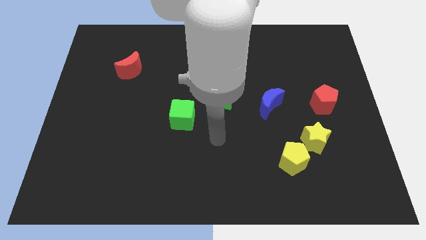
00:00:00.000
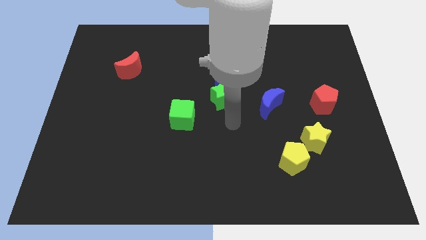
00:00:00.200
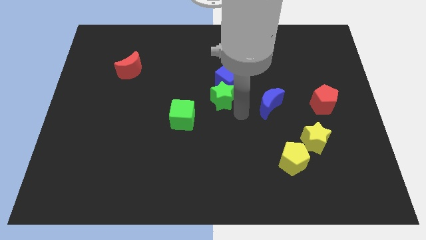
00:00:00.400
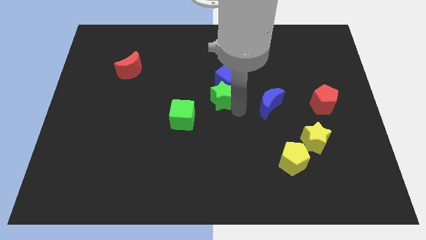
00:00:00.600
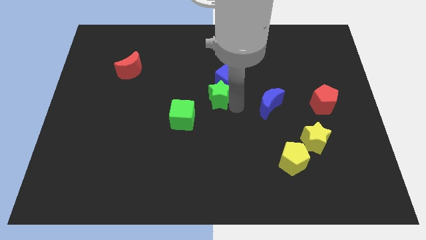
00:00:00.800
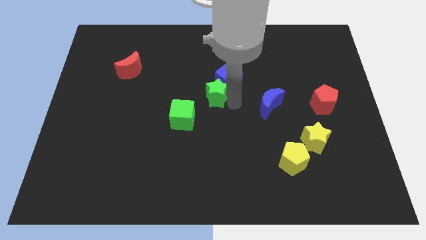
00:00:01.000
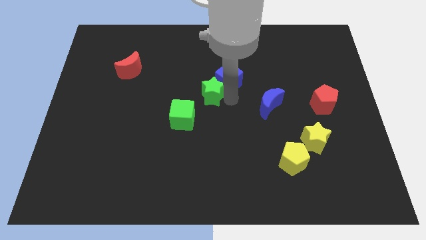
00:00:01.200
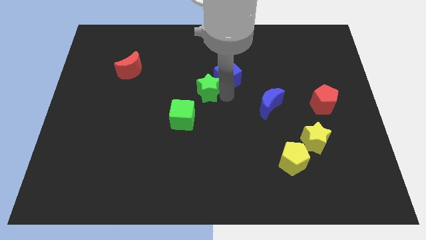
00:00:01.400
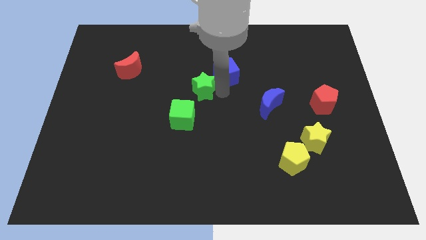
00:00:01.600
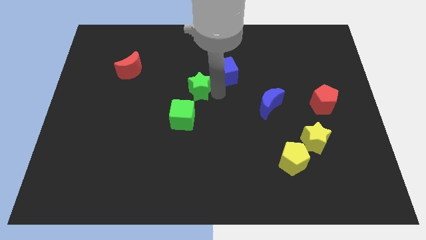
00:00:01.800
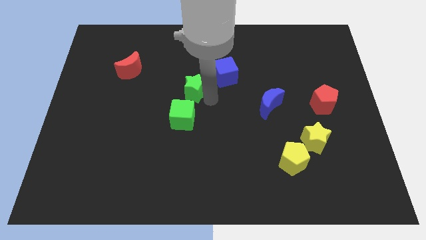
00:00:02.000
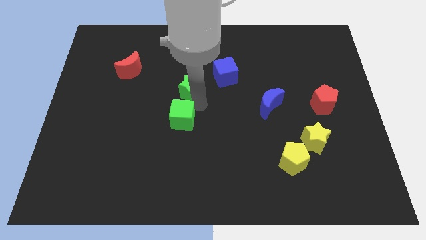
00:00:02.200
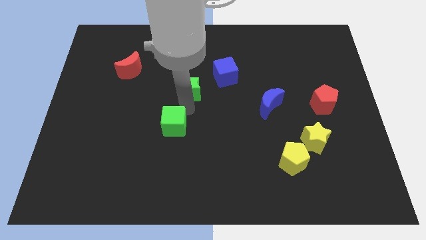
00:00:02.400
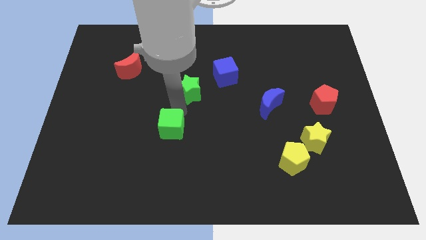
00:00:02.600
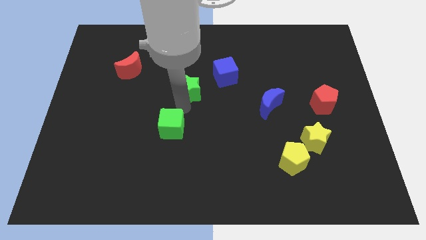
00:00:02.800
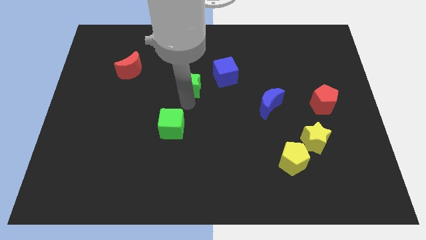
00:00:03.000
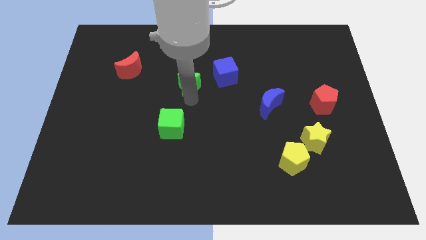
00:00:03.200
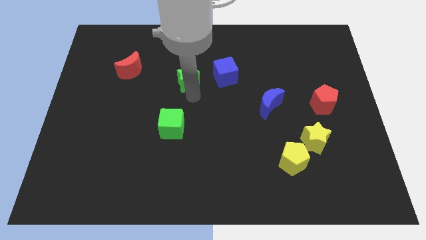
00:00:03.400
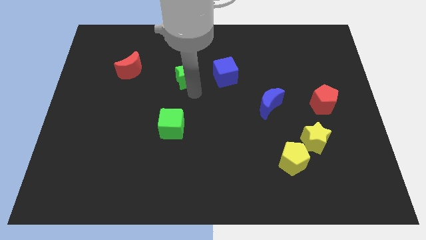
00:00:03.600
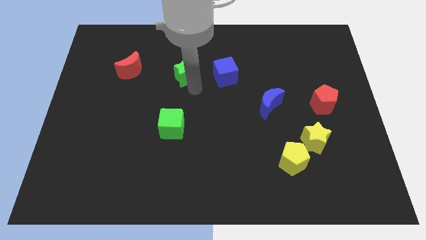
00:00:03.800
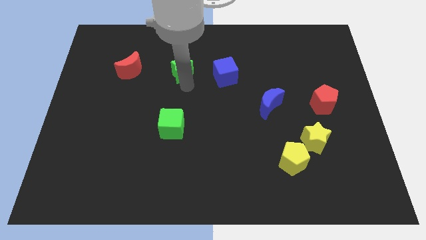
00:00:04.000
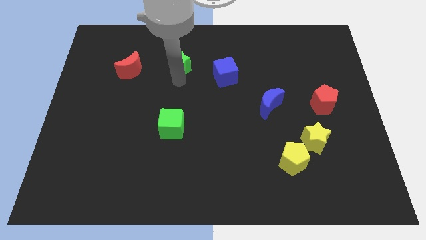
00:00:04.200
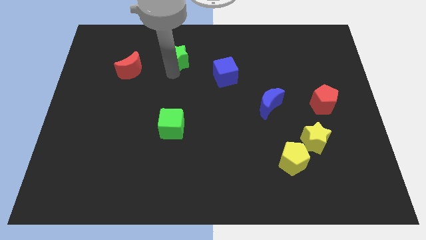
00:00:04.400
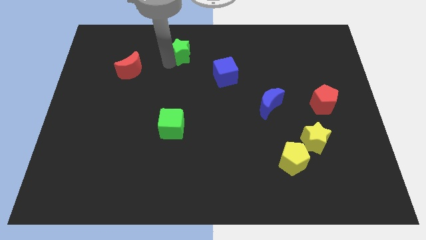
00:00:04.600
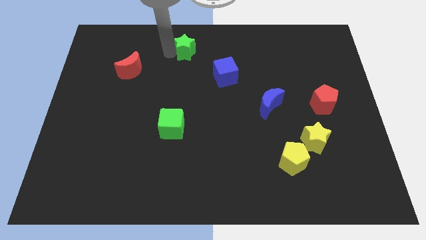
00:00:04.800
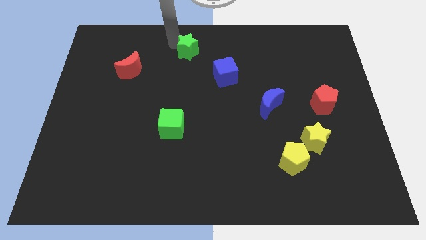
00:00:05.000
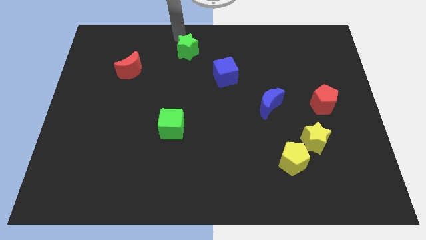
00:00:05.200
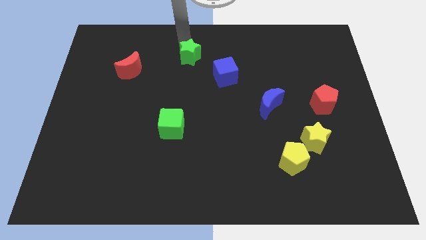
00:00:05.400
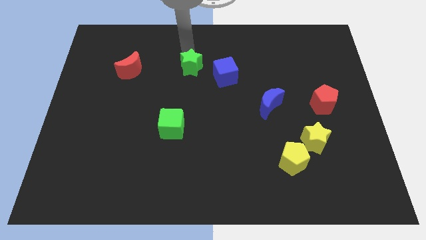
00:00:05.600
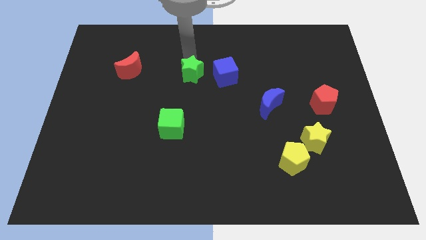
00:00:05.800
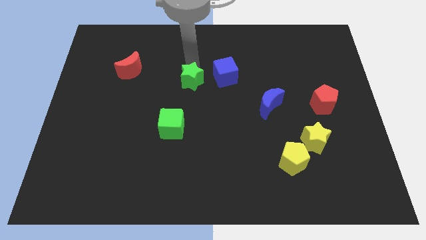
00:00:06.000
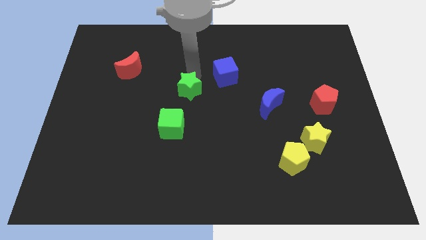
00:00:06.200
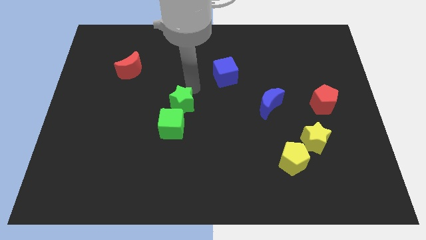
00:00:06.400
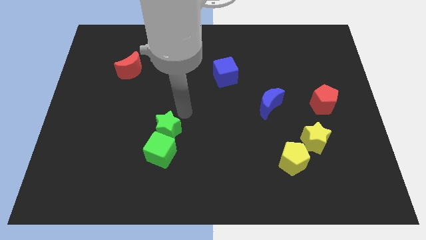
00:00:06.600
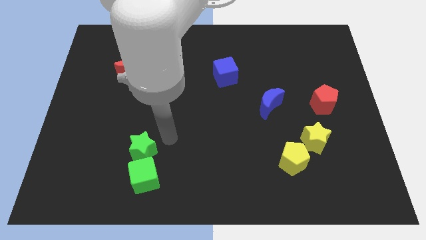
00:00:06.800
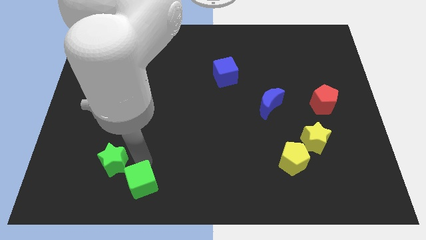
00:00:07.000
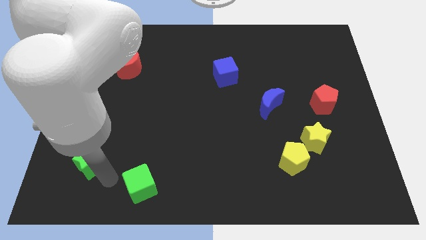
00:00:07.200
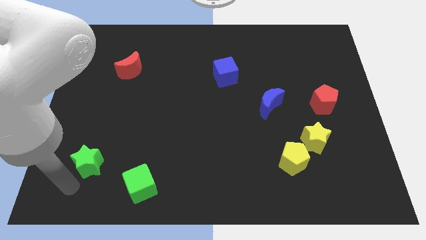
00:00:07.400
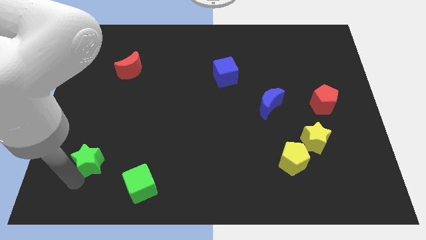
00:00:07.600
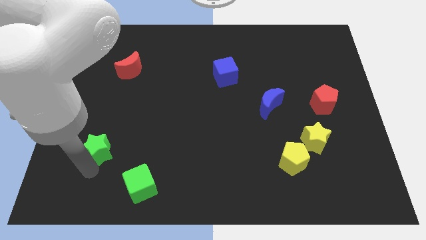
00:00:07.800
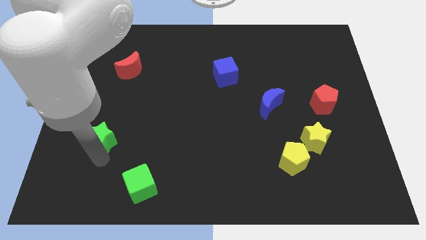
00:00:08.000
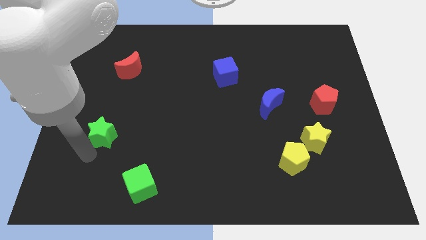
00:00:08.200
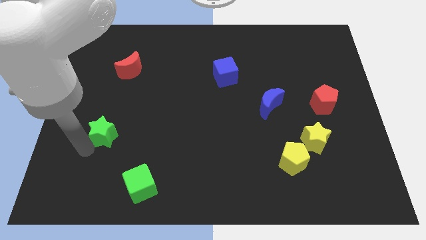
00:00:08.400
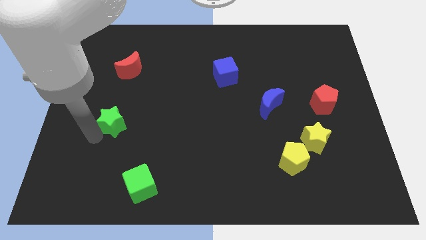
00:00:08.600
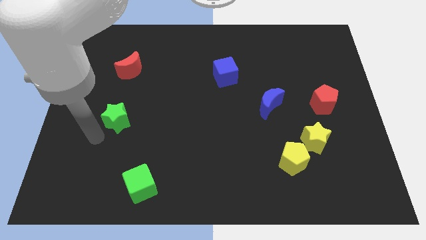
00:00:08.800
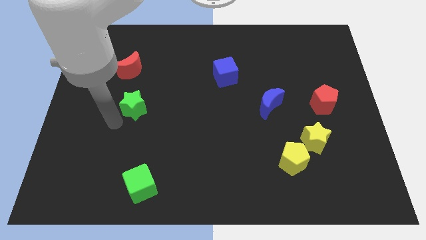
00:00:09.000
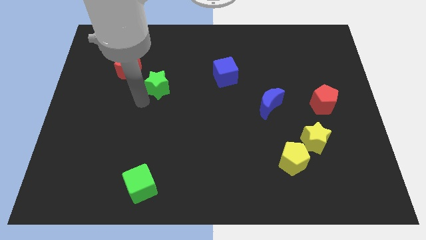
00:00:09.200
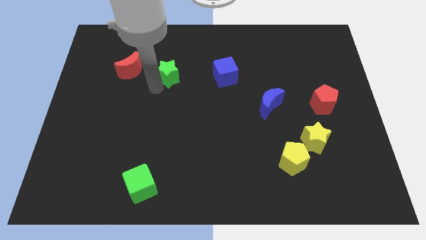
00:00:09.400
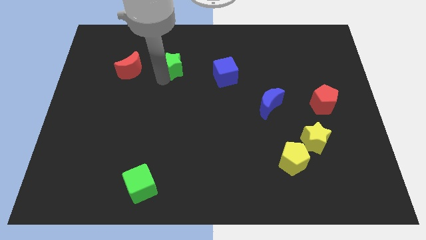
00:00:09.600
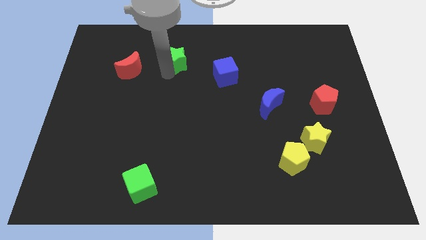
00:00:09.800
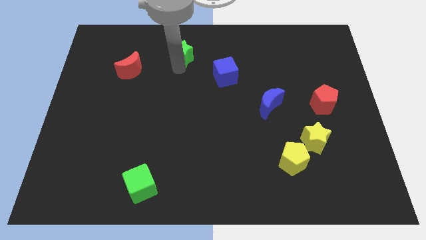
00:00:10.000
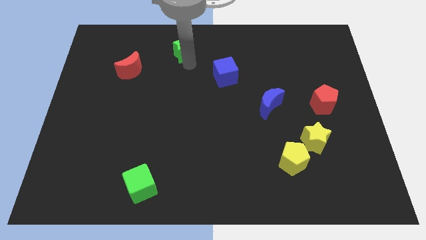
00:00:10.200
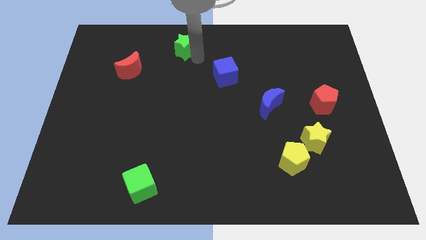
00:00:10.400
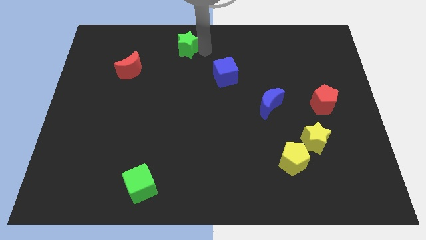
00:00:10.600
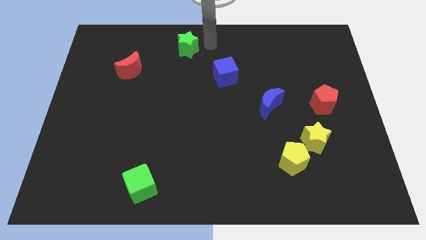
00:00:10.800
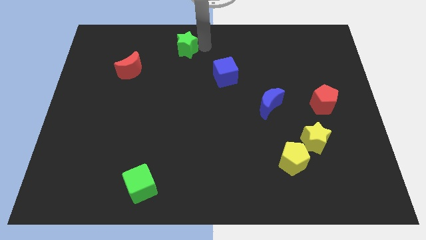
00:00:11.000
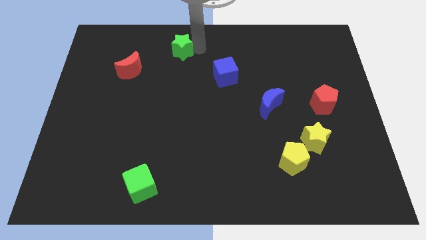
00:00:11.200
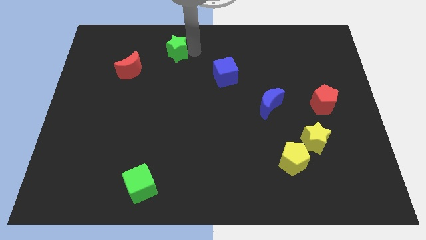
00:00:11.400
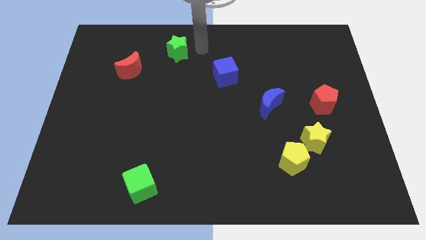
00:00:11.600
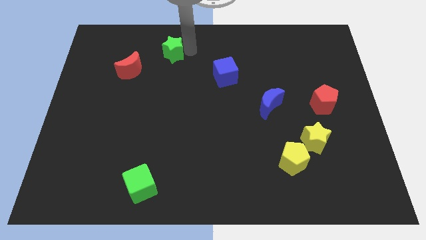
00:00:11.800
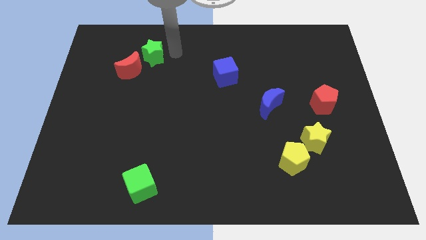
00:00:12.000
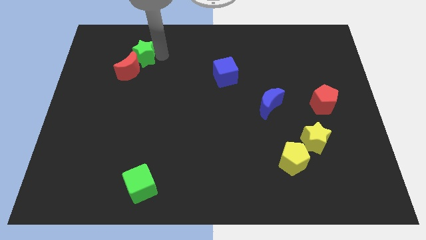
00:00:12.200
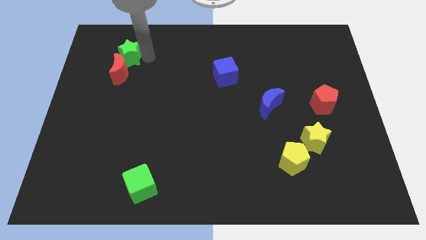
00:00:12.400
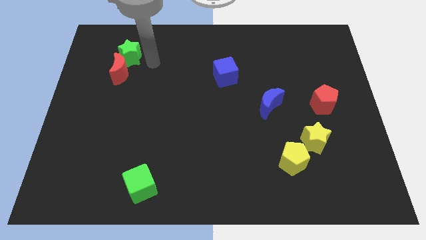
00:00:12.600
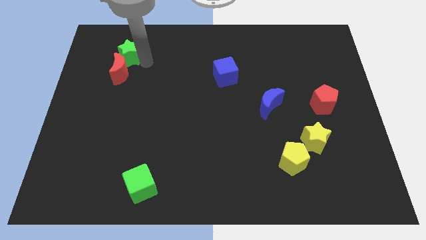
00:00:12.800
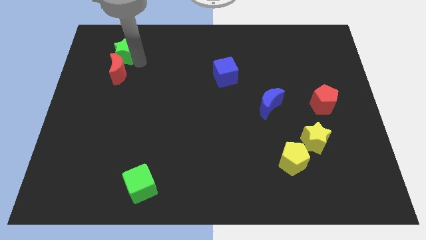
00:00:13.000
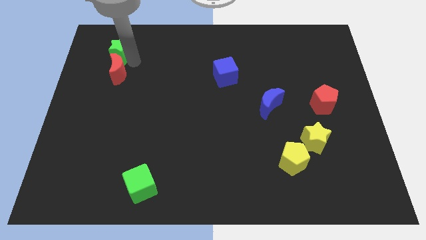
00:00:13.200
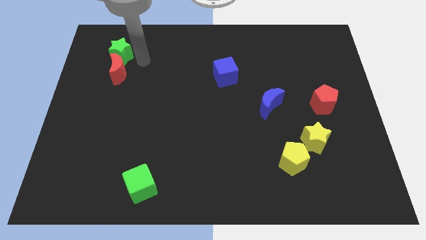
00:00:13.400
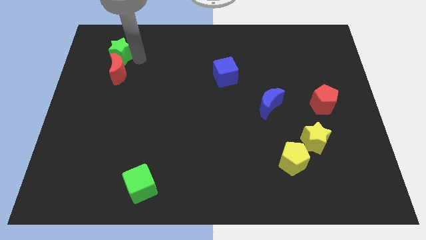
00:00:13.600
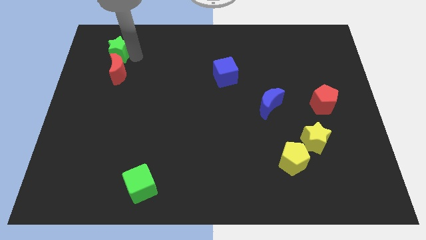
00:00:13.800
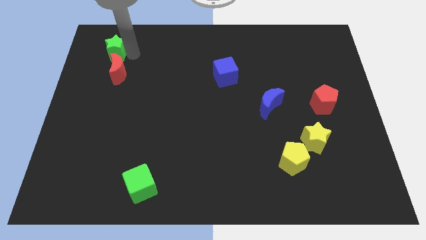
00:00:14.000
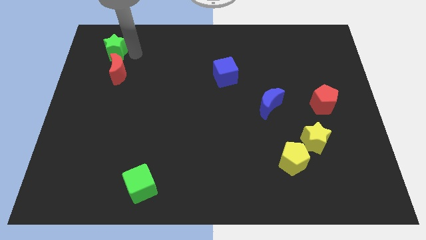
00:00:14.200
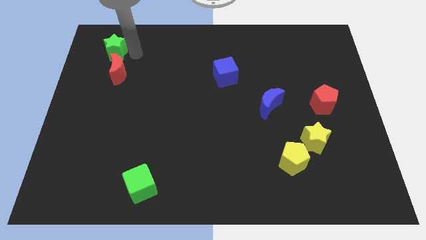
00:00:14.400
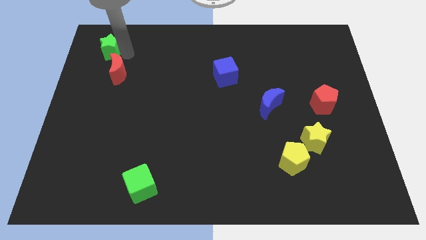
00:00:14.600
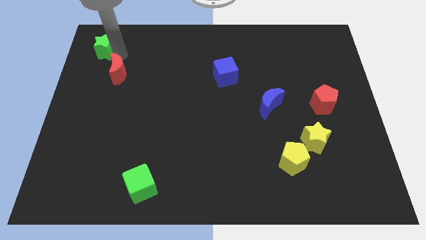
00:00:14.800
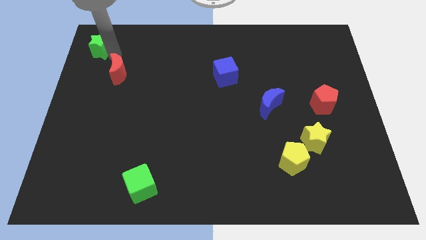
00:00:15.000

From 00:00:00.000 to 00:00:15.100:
slide the green star to the top left
